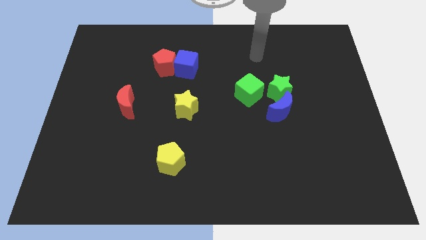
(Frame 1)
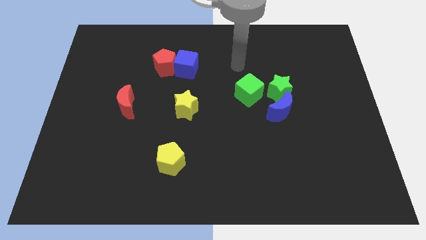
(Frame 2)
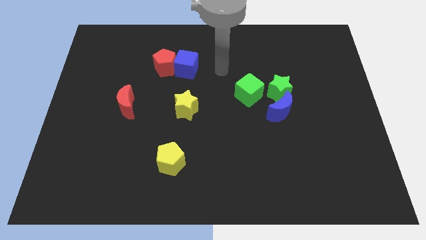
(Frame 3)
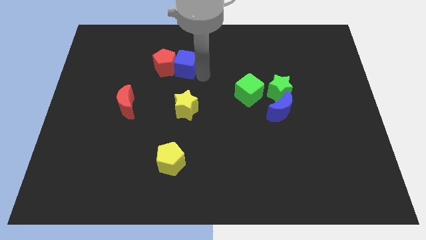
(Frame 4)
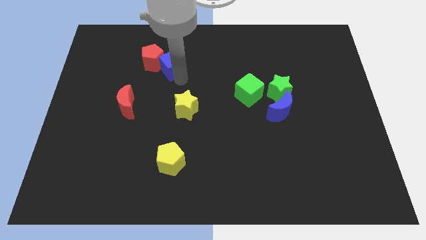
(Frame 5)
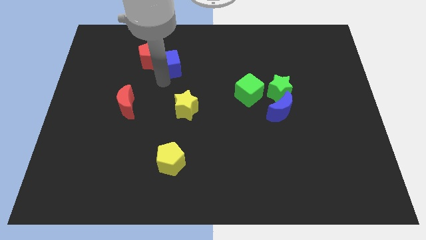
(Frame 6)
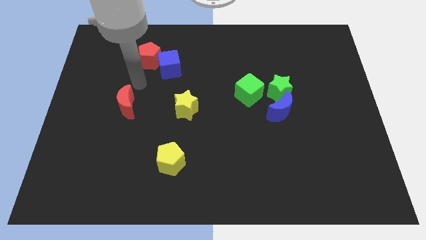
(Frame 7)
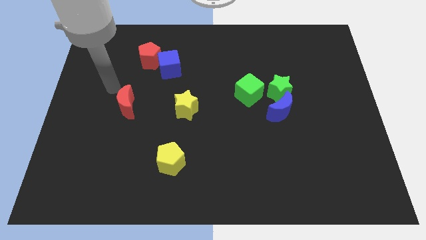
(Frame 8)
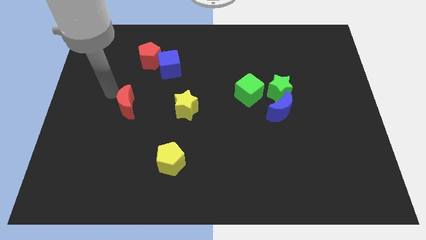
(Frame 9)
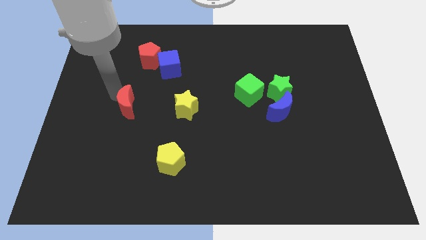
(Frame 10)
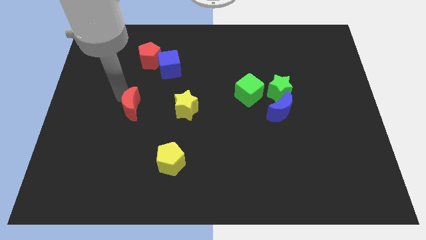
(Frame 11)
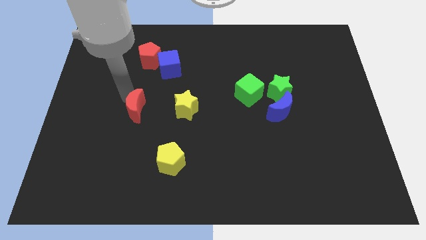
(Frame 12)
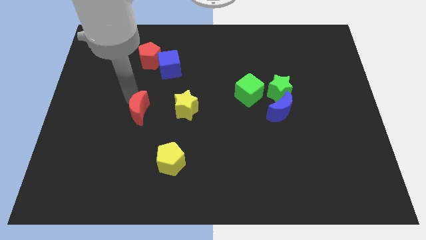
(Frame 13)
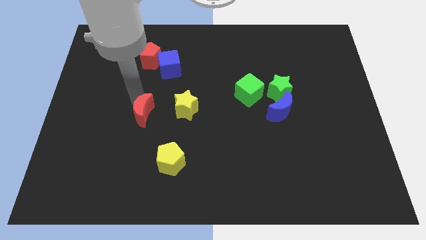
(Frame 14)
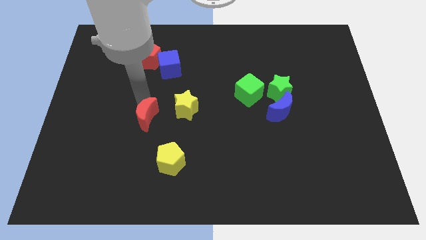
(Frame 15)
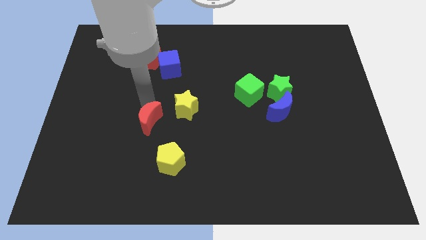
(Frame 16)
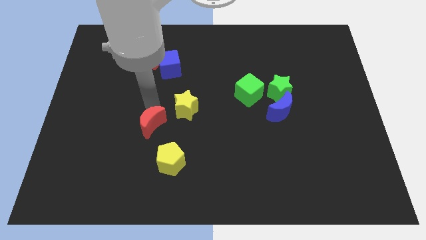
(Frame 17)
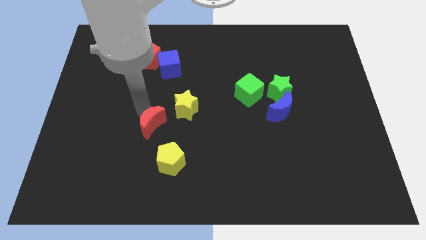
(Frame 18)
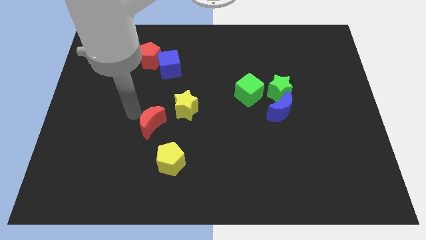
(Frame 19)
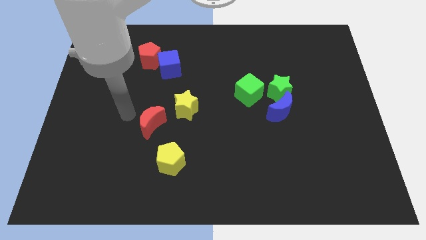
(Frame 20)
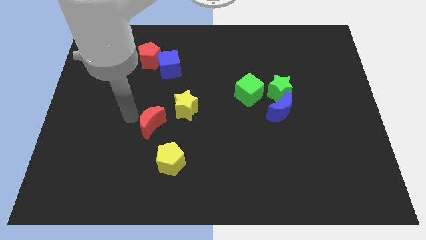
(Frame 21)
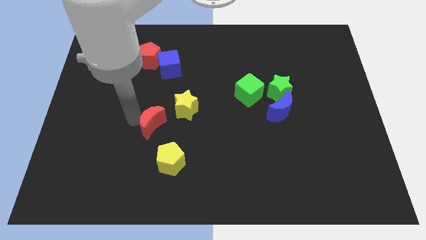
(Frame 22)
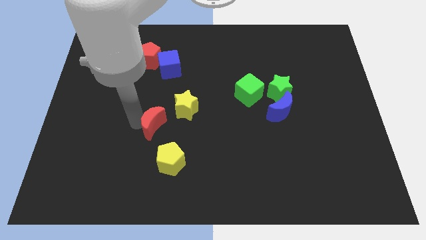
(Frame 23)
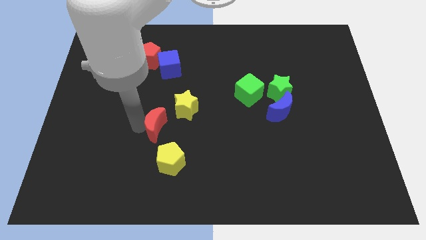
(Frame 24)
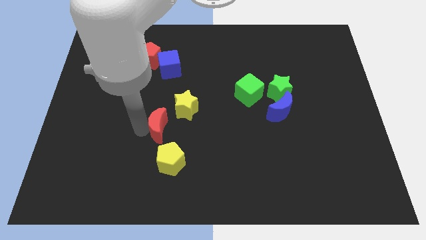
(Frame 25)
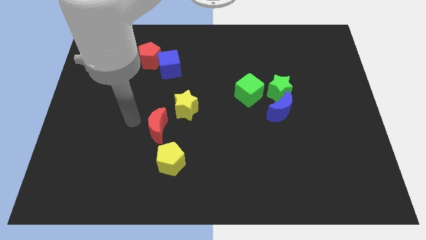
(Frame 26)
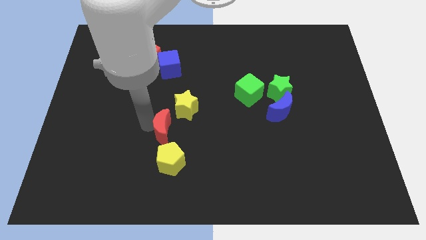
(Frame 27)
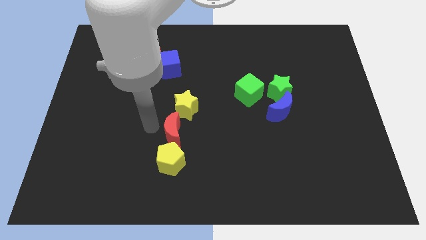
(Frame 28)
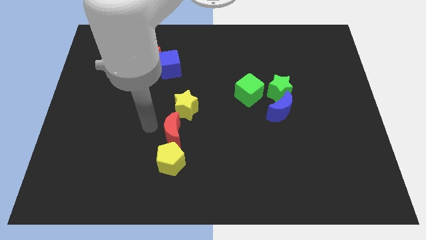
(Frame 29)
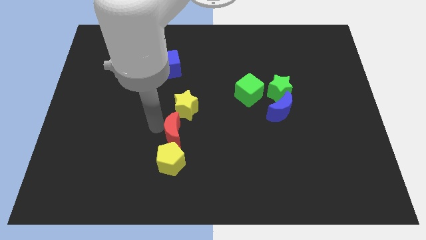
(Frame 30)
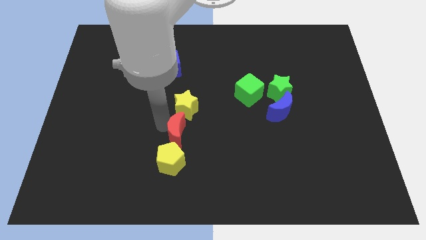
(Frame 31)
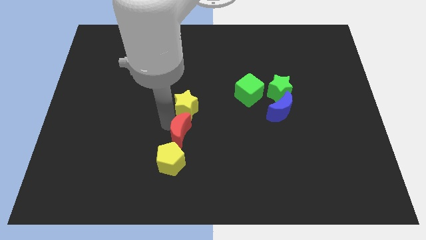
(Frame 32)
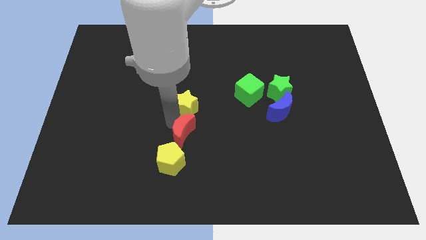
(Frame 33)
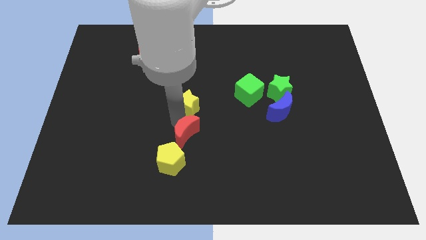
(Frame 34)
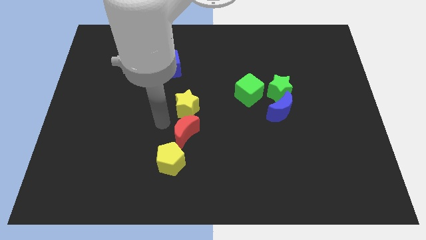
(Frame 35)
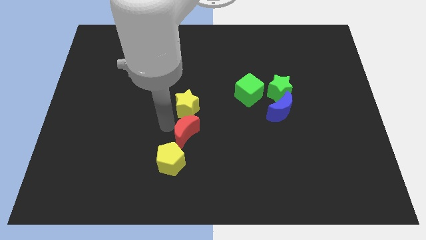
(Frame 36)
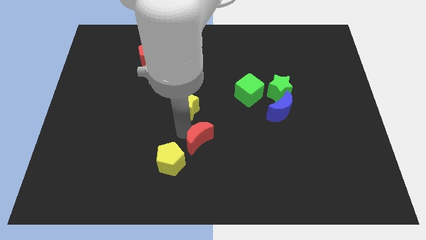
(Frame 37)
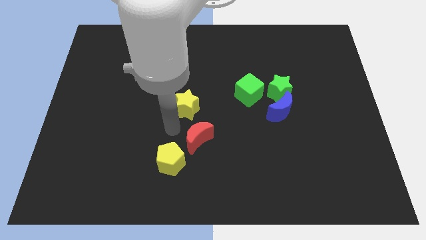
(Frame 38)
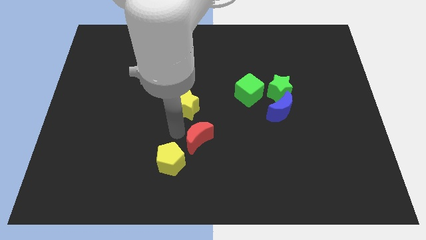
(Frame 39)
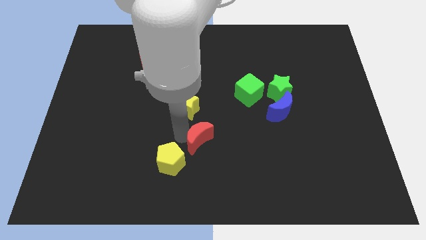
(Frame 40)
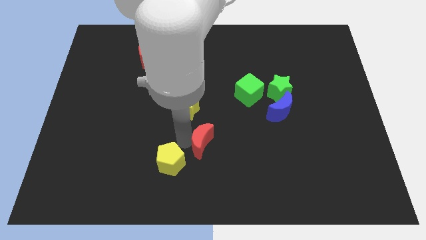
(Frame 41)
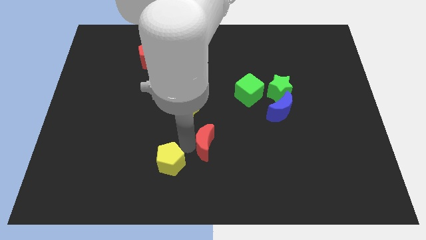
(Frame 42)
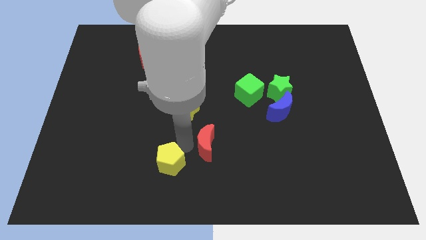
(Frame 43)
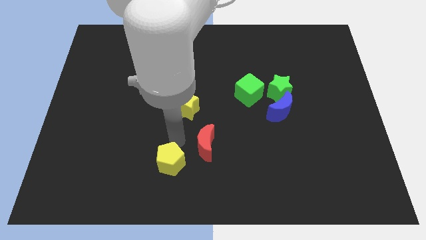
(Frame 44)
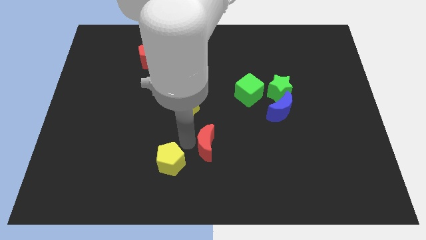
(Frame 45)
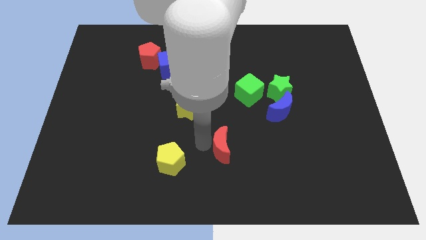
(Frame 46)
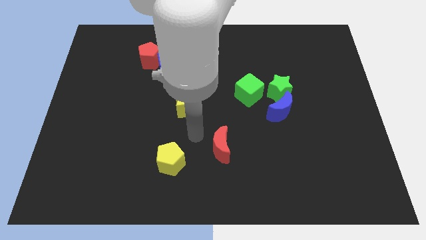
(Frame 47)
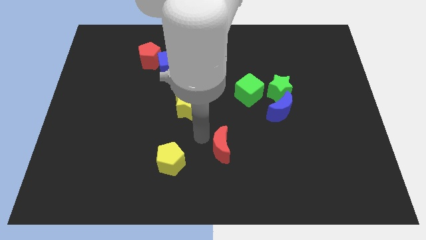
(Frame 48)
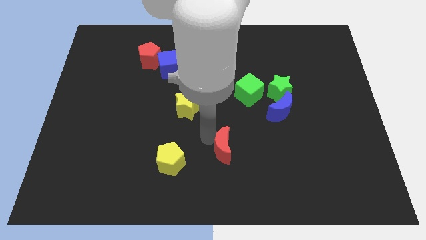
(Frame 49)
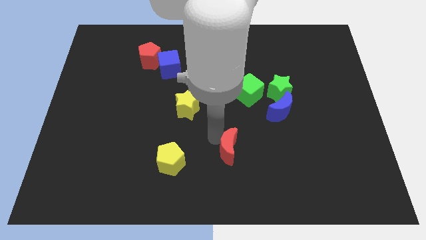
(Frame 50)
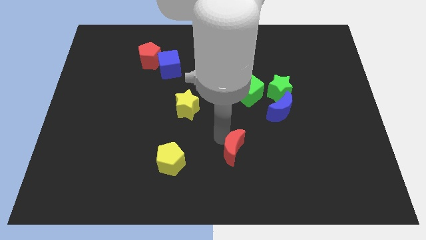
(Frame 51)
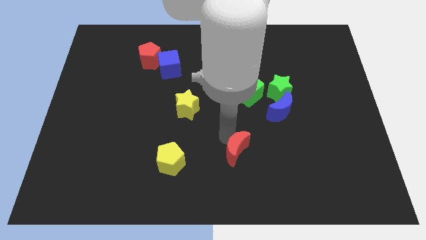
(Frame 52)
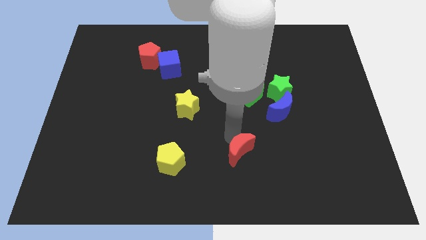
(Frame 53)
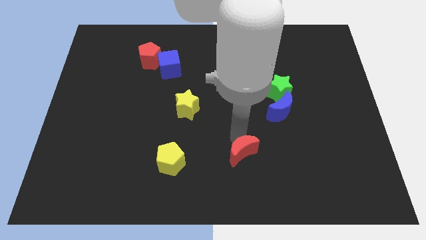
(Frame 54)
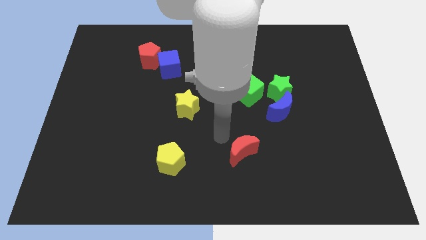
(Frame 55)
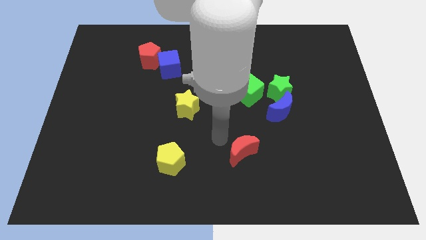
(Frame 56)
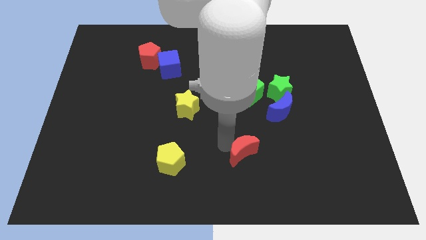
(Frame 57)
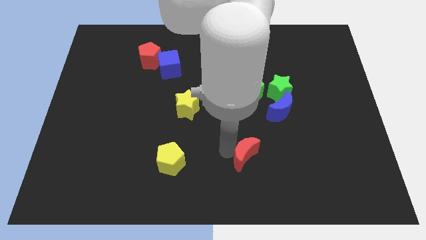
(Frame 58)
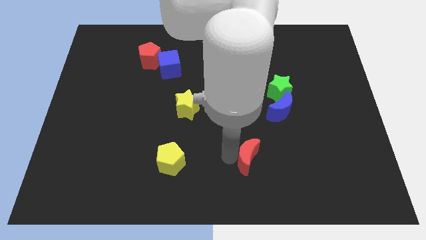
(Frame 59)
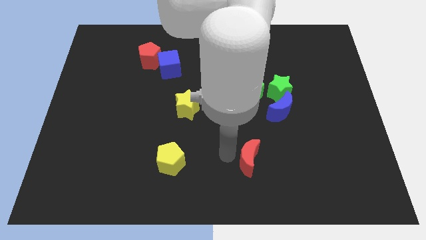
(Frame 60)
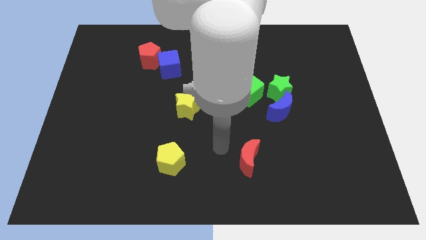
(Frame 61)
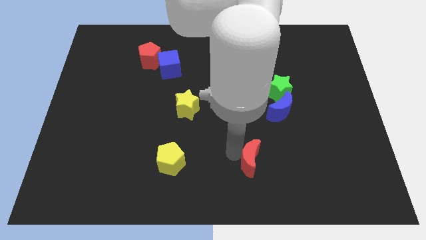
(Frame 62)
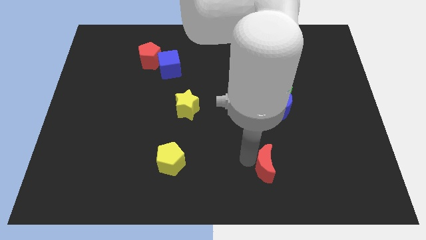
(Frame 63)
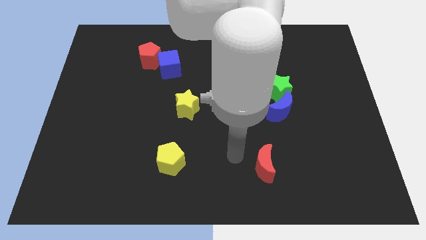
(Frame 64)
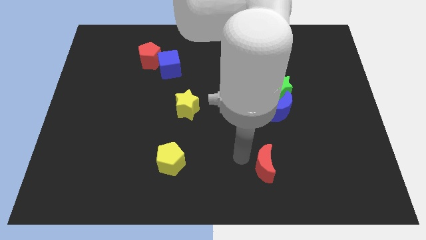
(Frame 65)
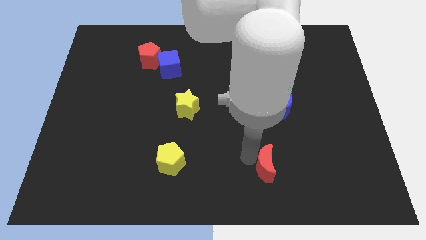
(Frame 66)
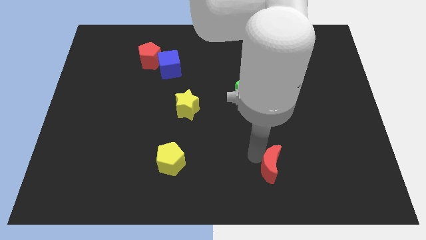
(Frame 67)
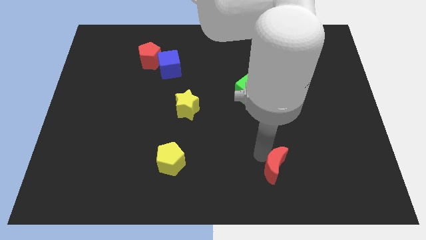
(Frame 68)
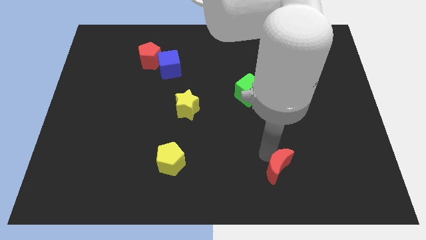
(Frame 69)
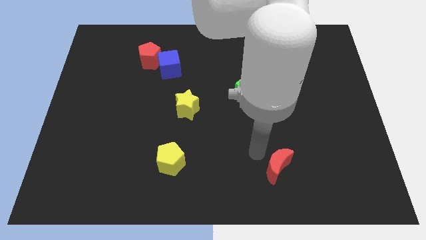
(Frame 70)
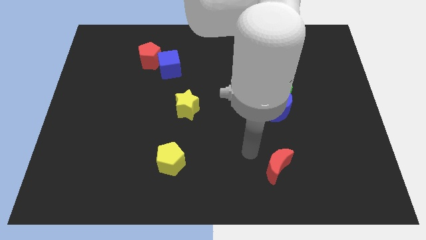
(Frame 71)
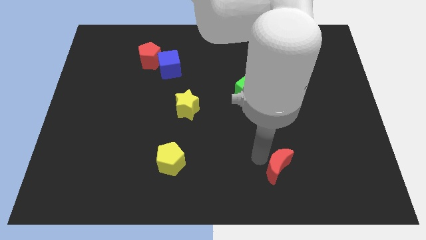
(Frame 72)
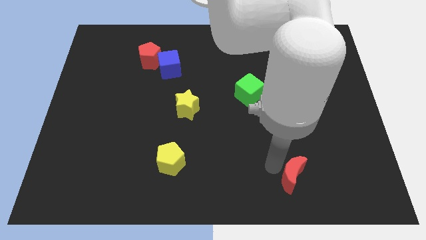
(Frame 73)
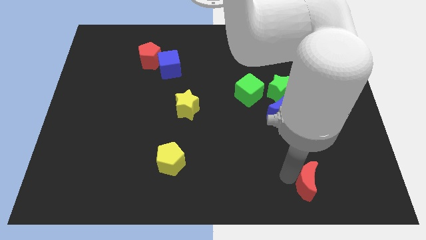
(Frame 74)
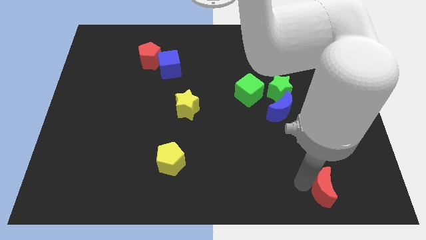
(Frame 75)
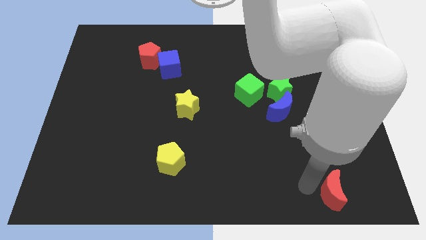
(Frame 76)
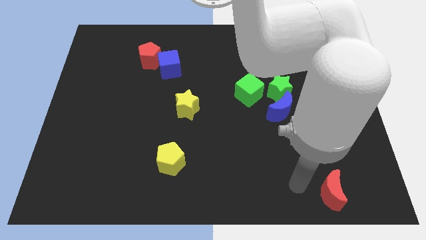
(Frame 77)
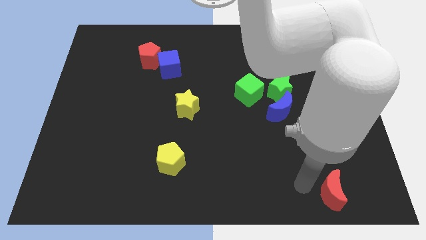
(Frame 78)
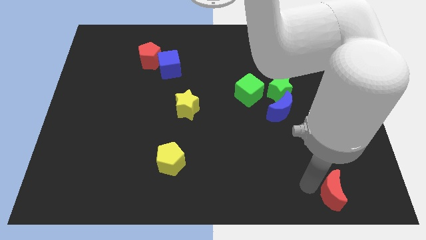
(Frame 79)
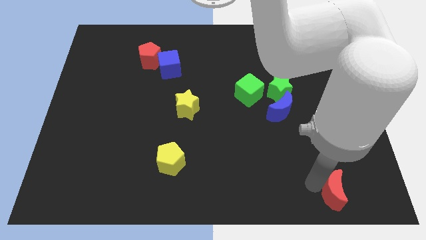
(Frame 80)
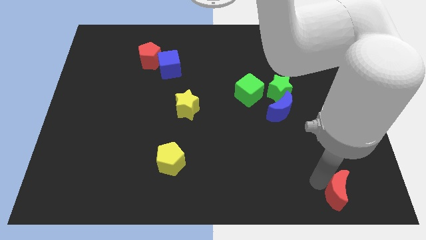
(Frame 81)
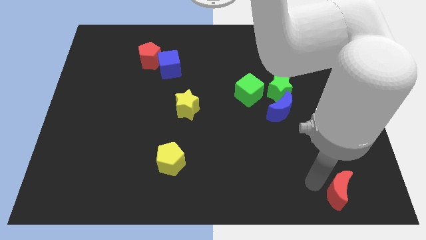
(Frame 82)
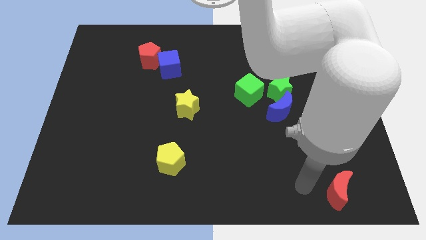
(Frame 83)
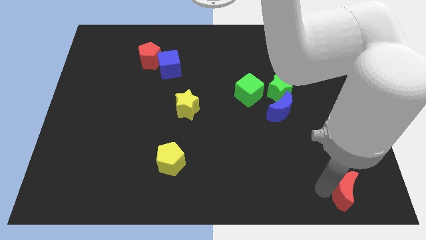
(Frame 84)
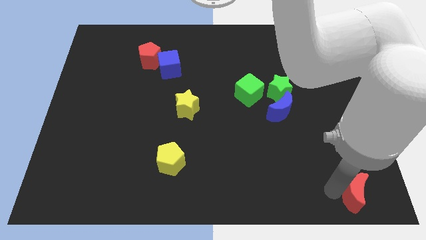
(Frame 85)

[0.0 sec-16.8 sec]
put the red moon to the lower right corner
